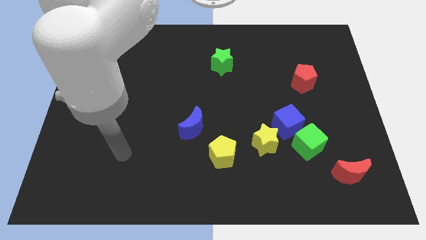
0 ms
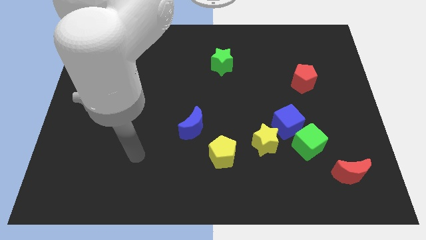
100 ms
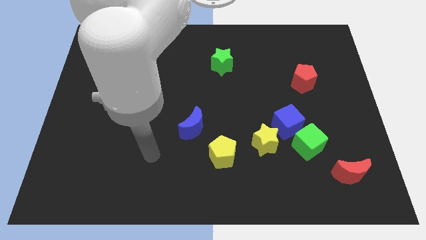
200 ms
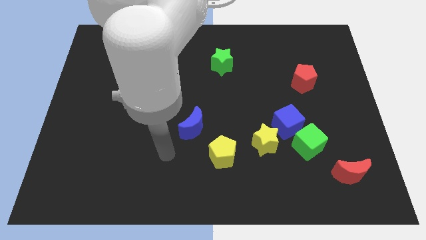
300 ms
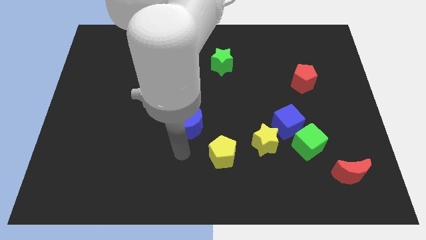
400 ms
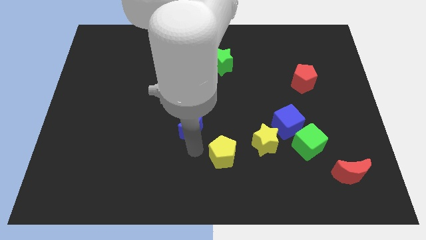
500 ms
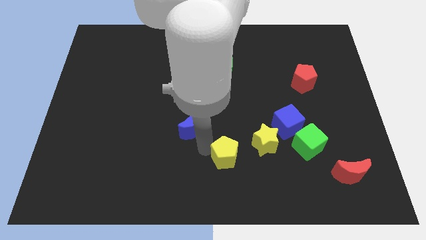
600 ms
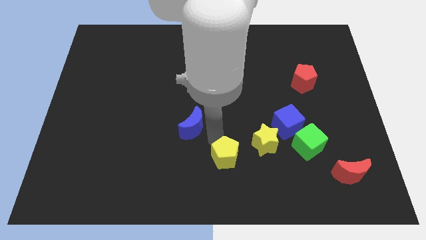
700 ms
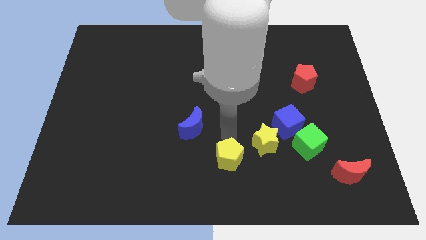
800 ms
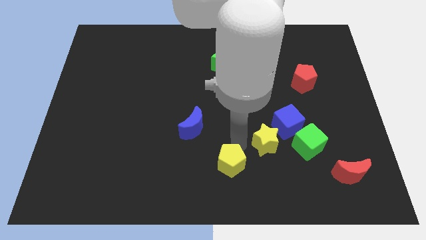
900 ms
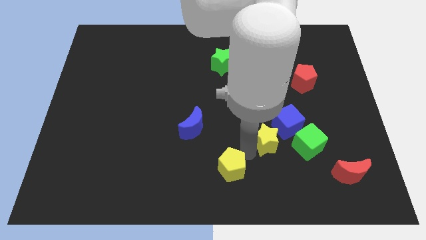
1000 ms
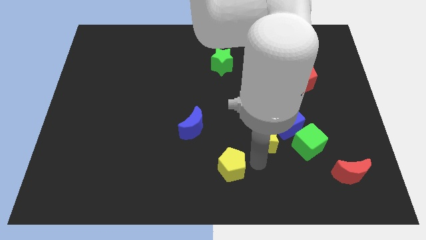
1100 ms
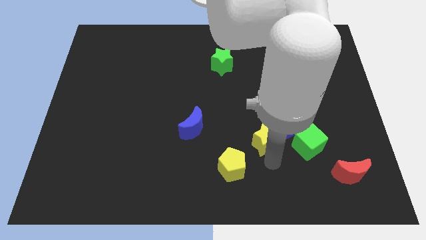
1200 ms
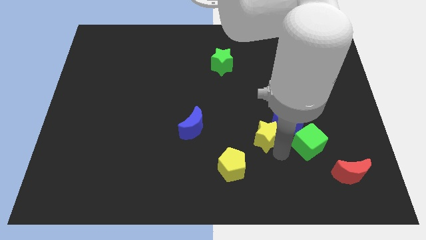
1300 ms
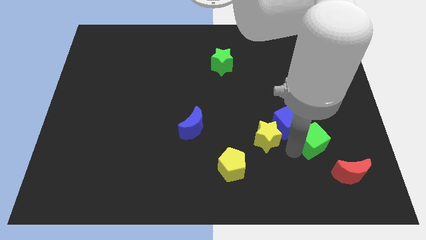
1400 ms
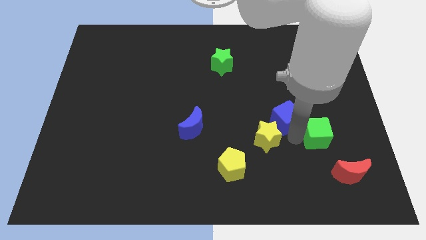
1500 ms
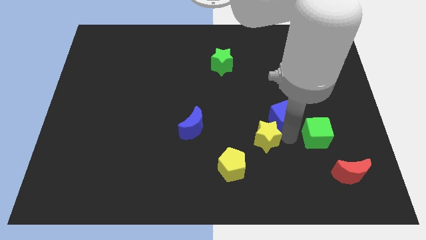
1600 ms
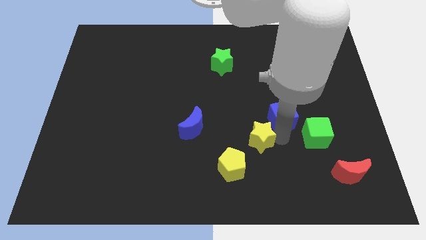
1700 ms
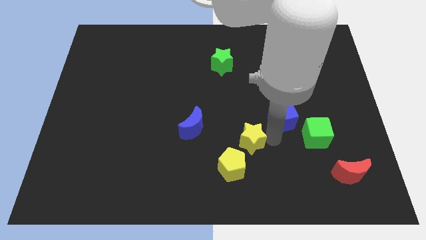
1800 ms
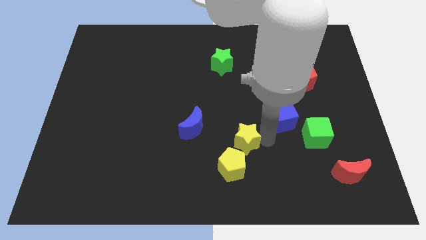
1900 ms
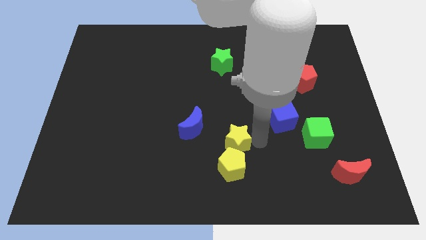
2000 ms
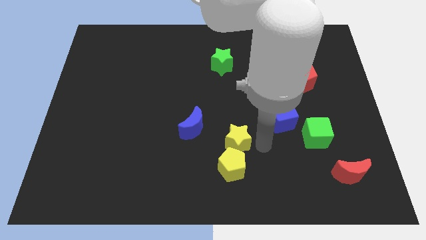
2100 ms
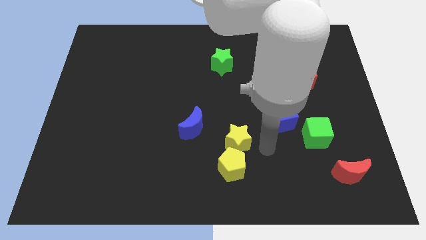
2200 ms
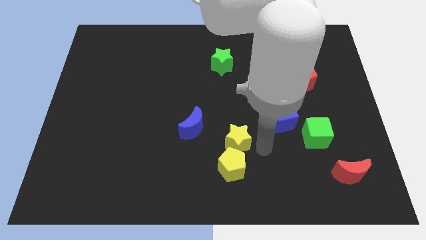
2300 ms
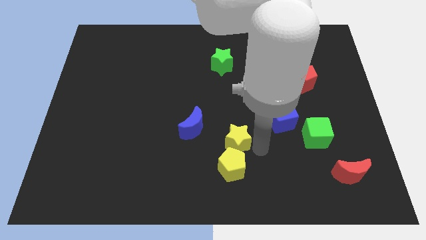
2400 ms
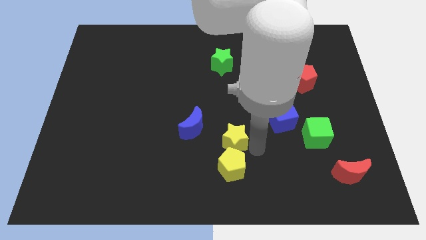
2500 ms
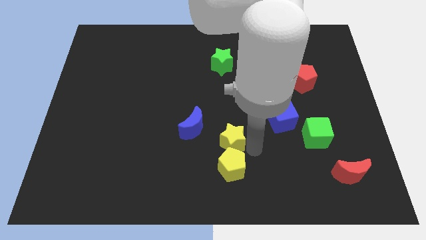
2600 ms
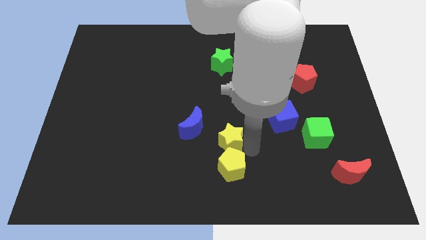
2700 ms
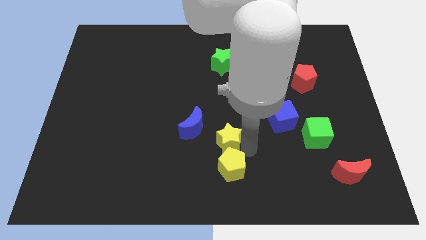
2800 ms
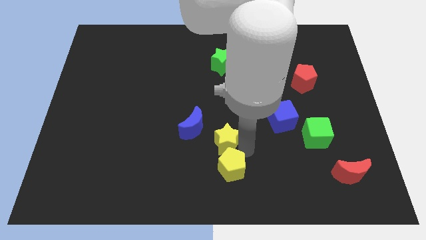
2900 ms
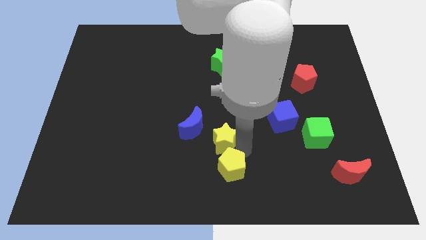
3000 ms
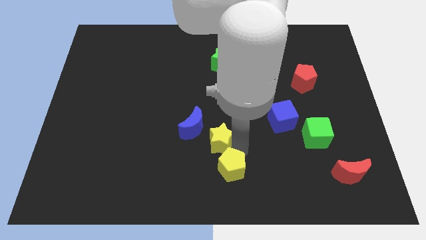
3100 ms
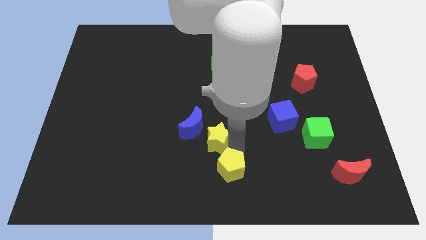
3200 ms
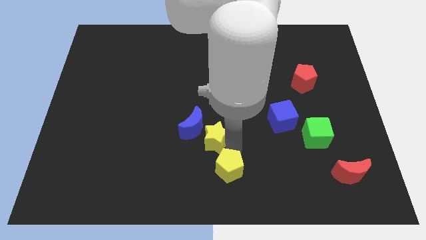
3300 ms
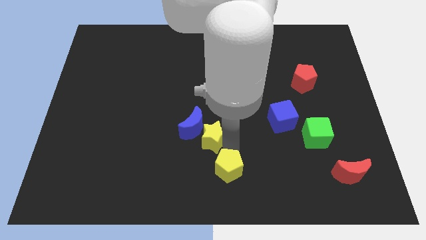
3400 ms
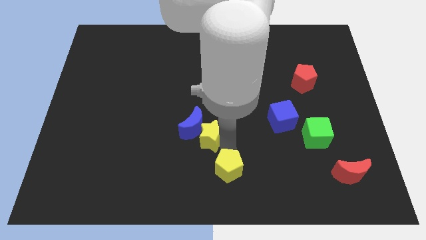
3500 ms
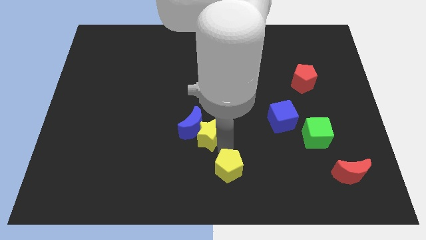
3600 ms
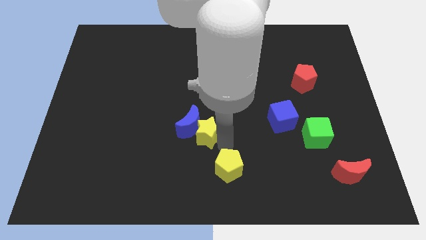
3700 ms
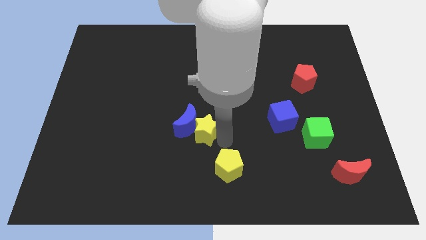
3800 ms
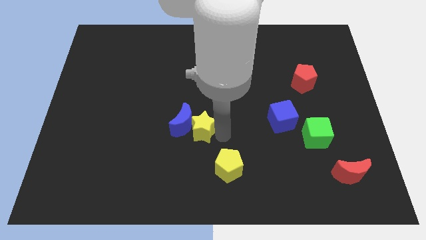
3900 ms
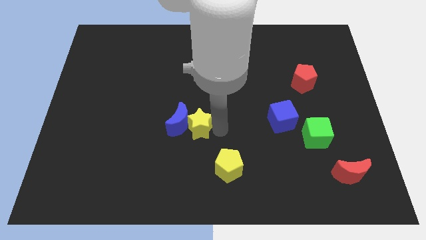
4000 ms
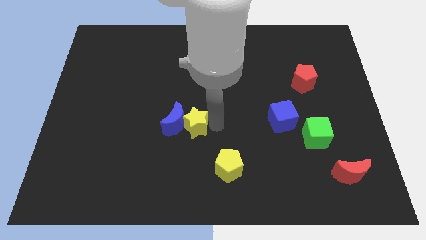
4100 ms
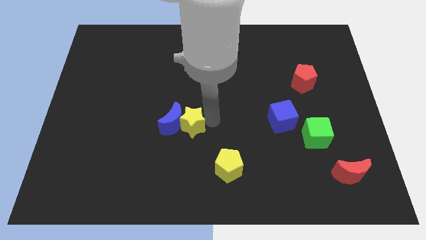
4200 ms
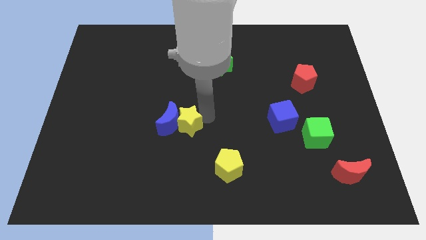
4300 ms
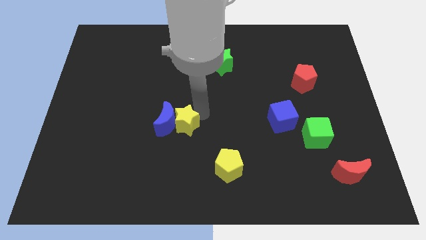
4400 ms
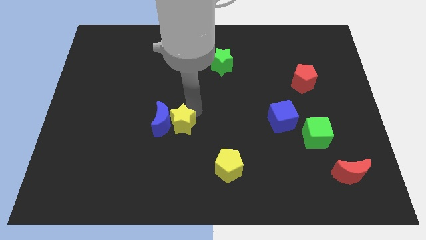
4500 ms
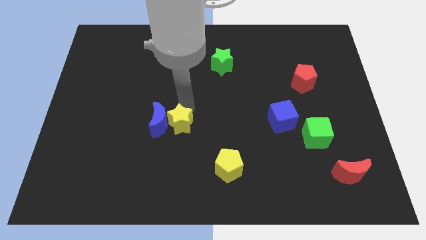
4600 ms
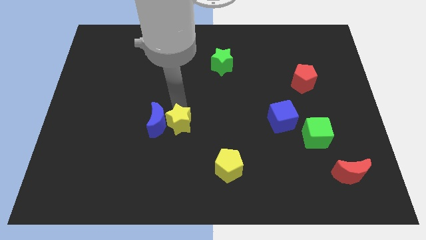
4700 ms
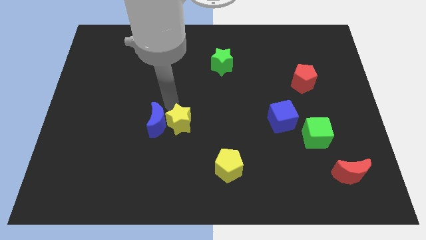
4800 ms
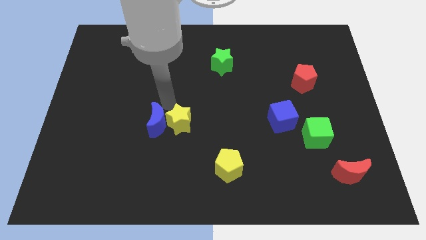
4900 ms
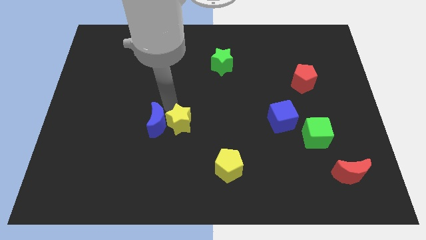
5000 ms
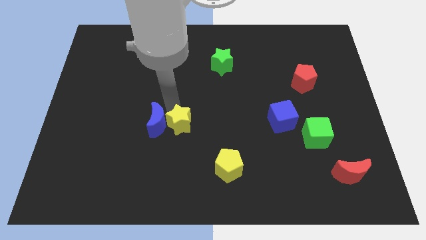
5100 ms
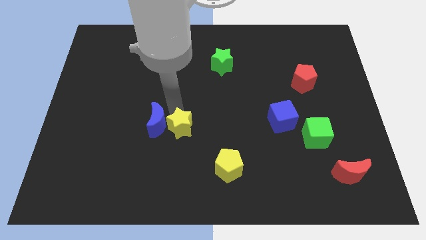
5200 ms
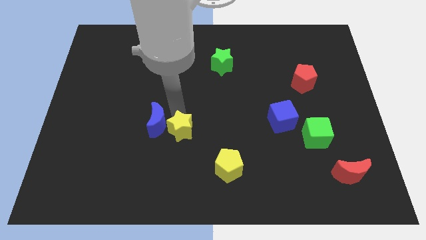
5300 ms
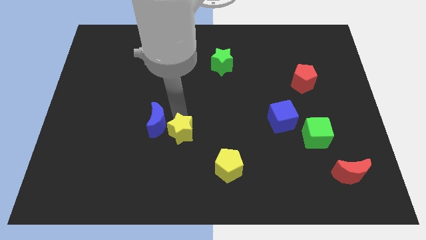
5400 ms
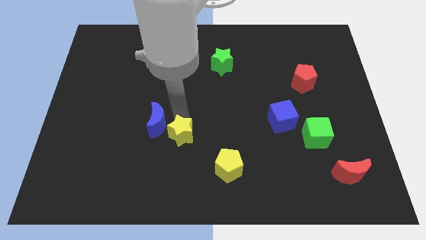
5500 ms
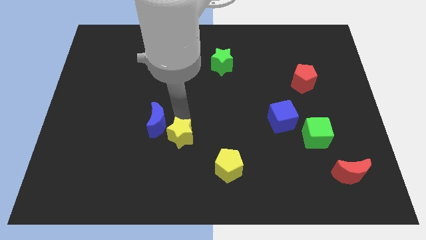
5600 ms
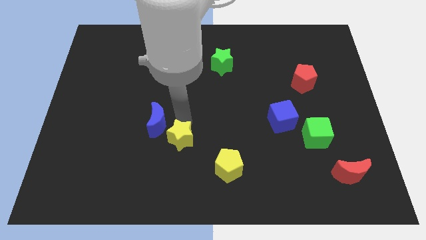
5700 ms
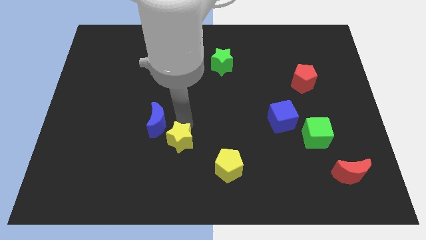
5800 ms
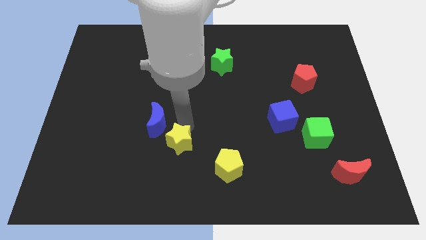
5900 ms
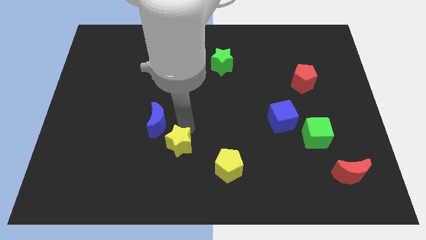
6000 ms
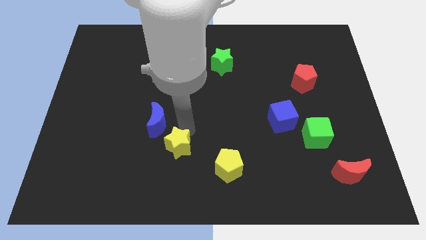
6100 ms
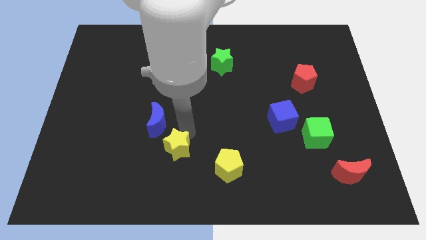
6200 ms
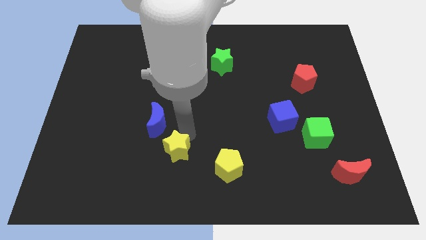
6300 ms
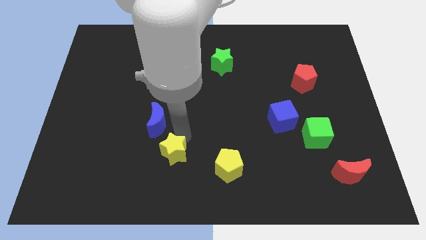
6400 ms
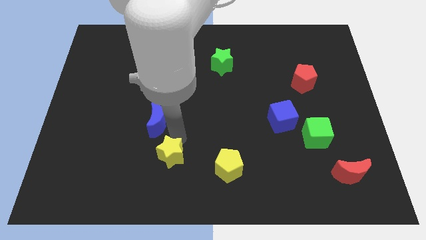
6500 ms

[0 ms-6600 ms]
move the yellow star to the left

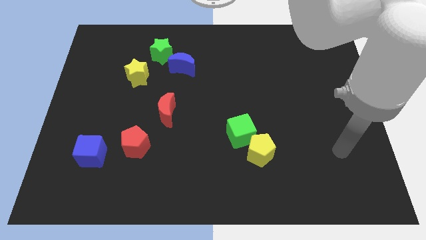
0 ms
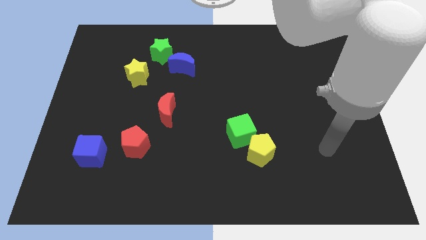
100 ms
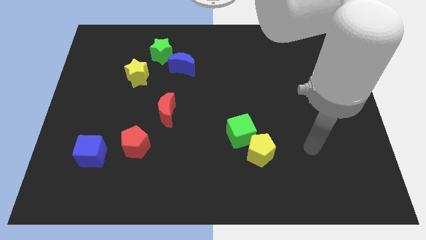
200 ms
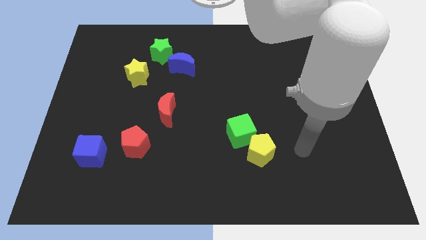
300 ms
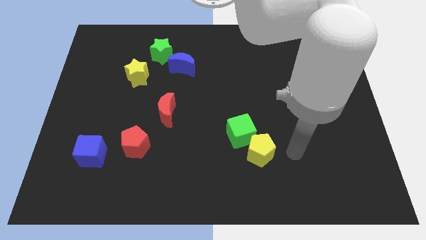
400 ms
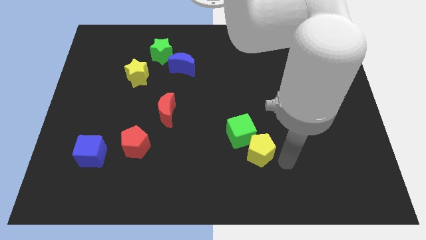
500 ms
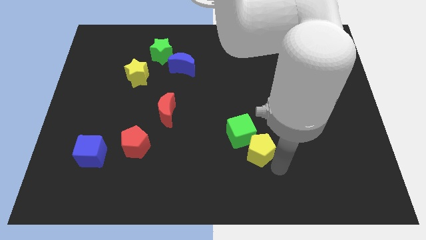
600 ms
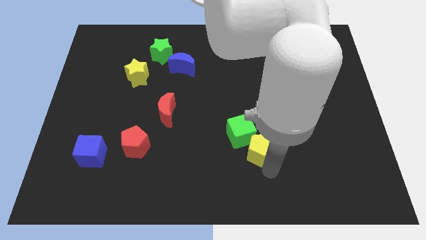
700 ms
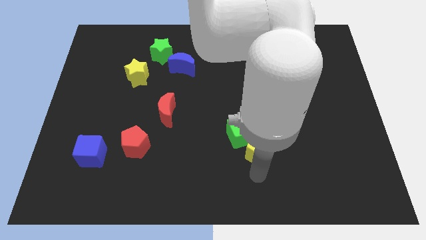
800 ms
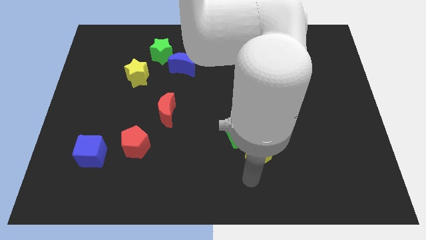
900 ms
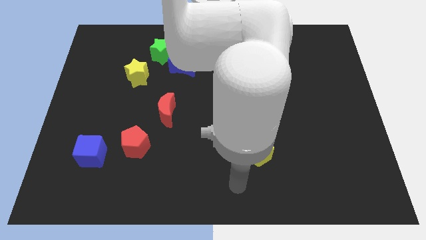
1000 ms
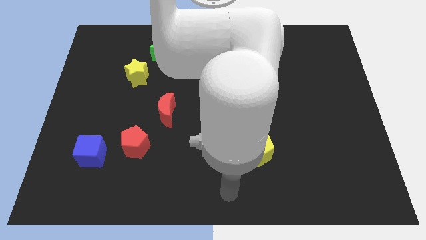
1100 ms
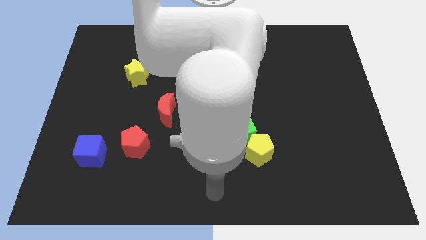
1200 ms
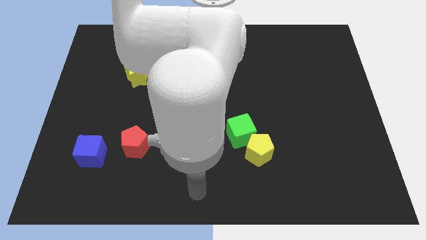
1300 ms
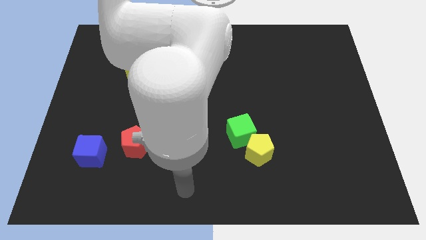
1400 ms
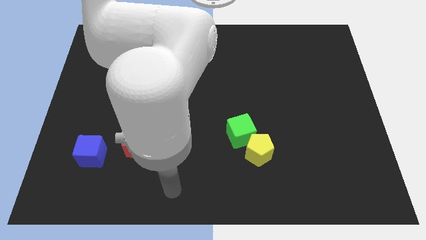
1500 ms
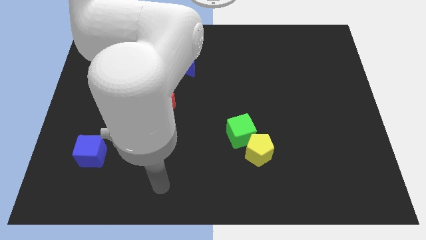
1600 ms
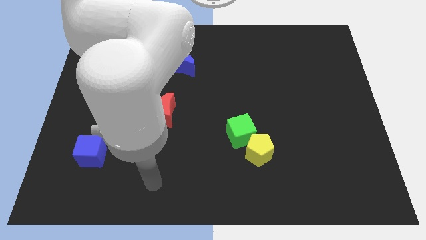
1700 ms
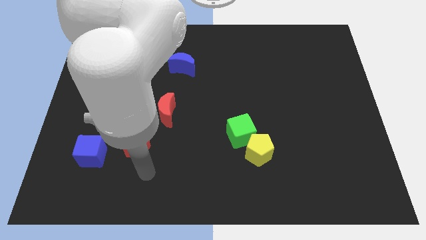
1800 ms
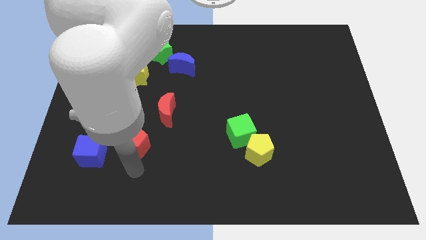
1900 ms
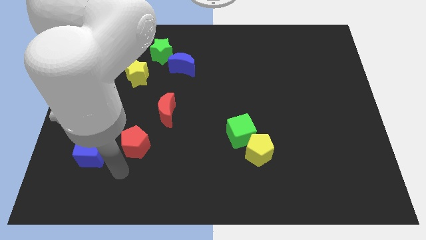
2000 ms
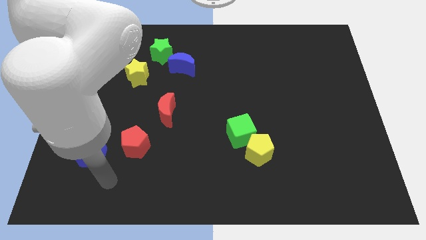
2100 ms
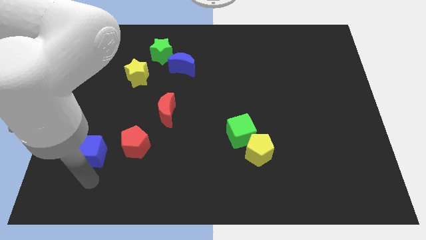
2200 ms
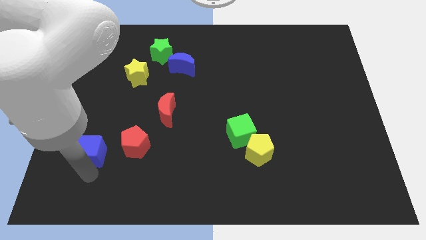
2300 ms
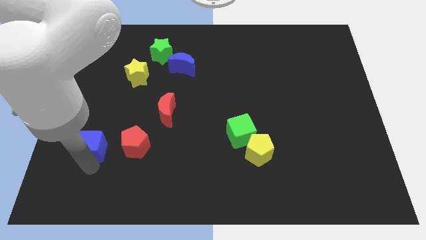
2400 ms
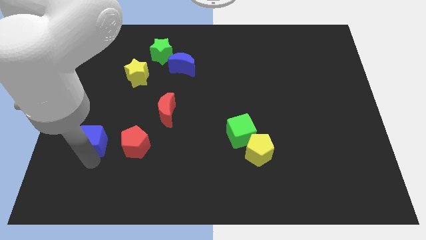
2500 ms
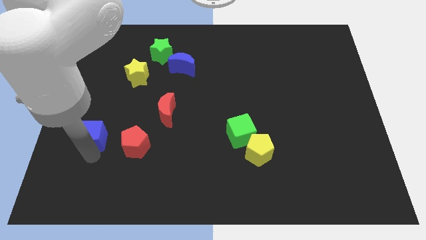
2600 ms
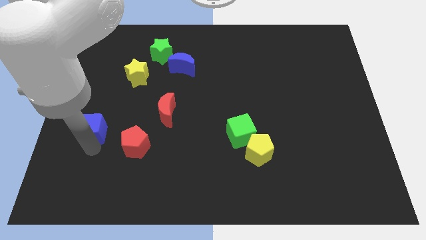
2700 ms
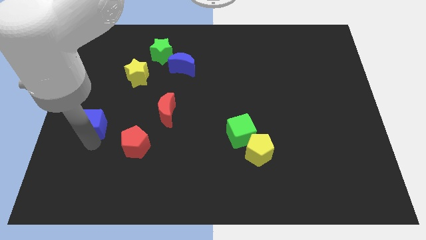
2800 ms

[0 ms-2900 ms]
slide the blue cube a bit upwards
